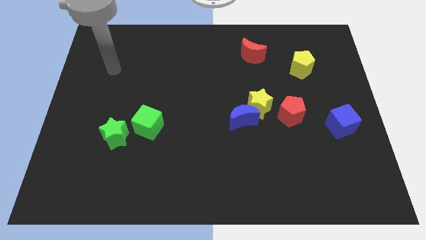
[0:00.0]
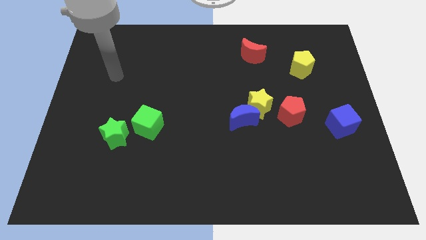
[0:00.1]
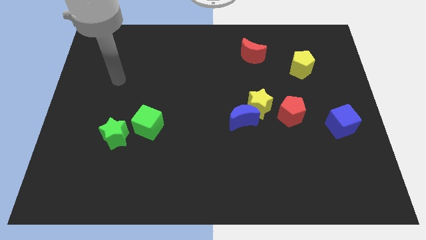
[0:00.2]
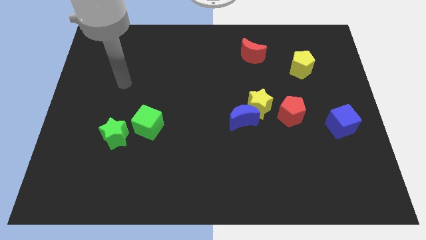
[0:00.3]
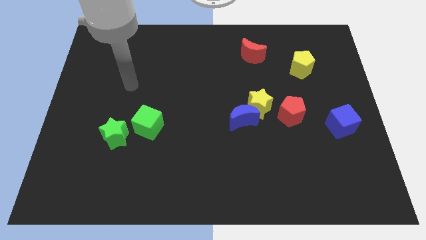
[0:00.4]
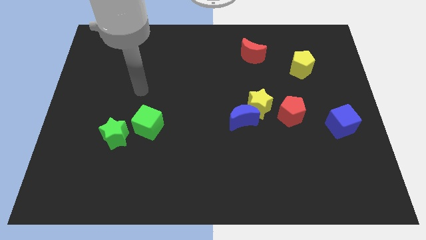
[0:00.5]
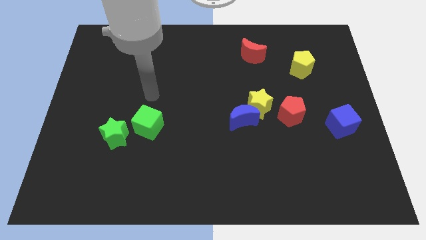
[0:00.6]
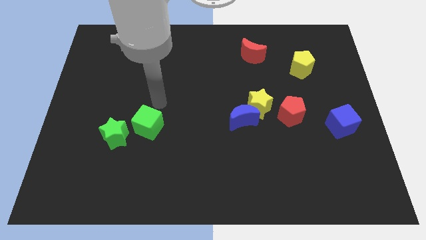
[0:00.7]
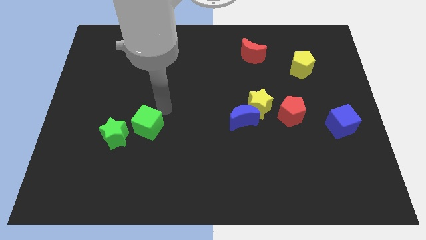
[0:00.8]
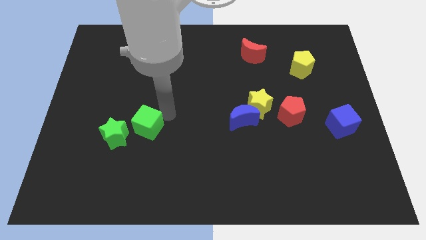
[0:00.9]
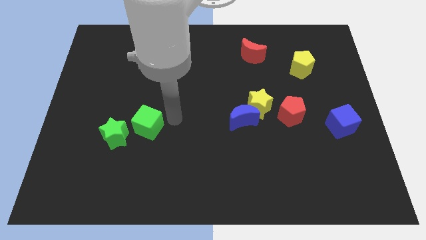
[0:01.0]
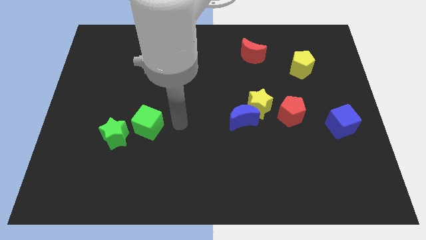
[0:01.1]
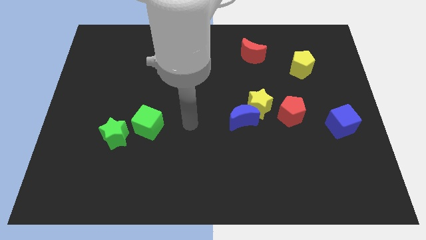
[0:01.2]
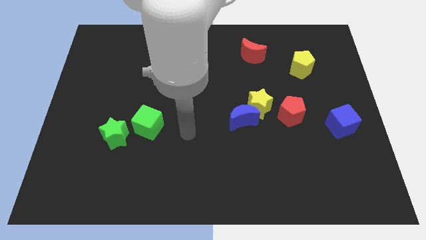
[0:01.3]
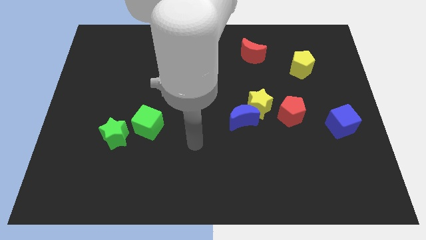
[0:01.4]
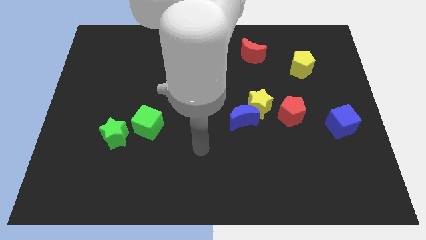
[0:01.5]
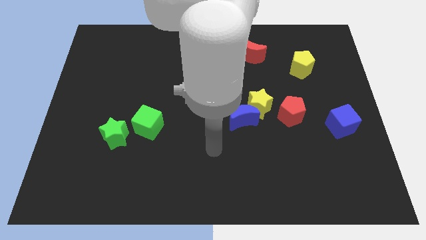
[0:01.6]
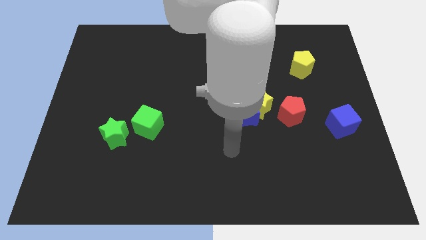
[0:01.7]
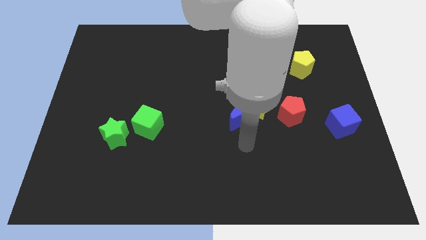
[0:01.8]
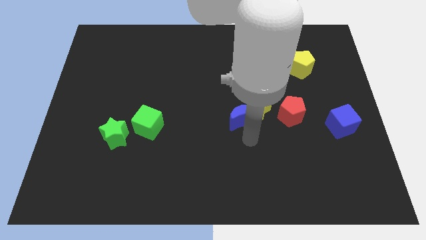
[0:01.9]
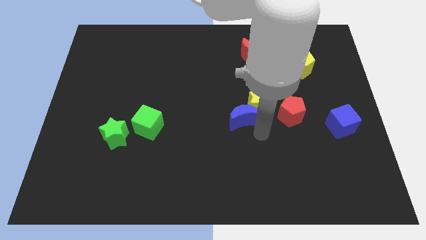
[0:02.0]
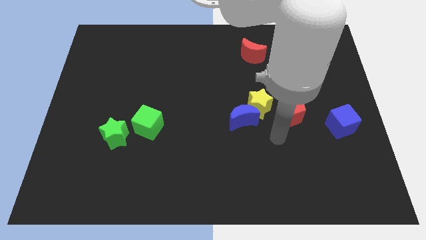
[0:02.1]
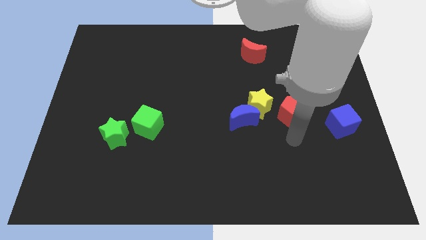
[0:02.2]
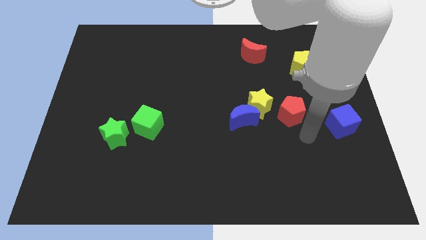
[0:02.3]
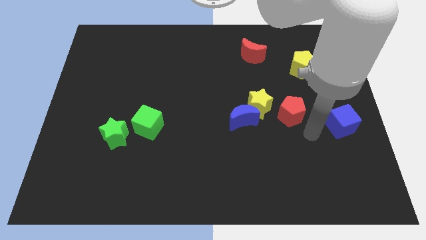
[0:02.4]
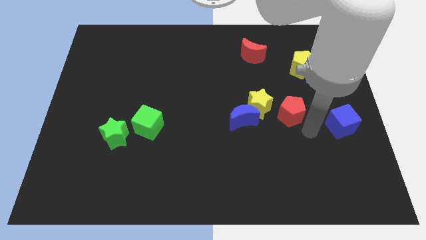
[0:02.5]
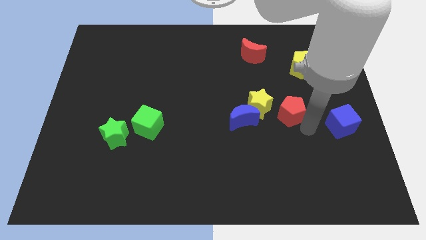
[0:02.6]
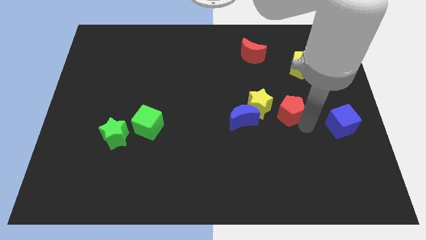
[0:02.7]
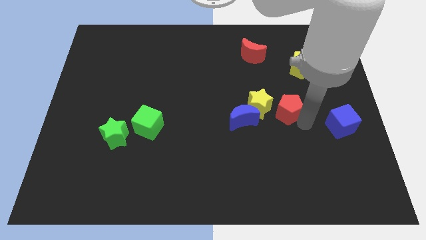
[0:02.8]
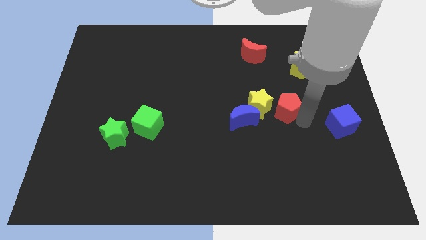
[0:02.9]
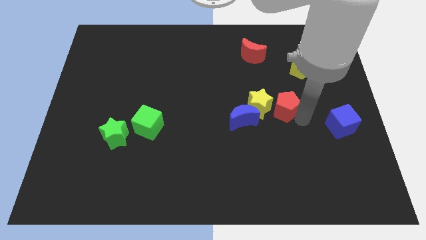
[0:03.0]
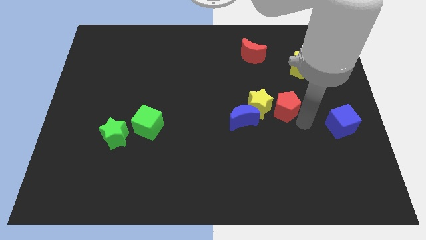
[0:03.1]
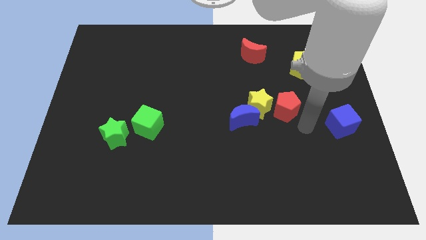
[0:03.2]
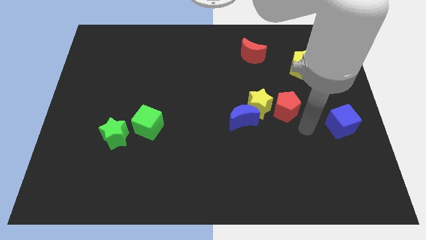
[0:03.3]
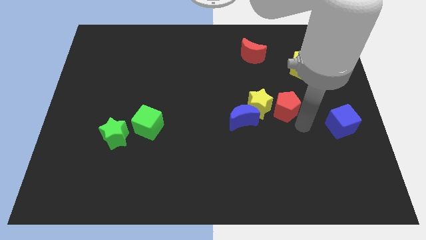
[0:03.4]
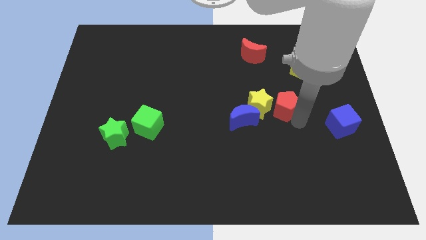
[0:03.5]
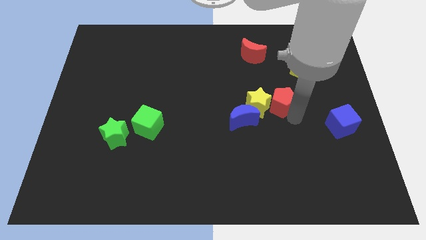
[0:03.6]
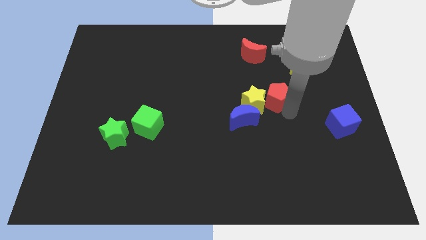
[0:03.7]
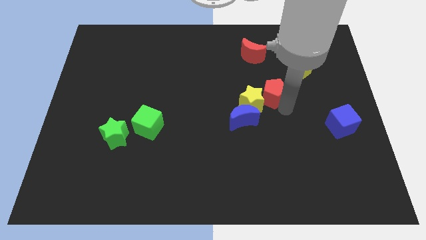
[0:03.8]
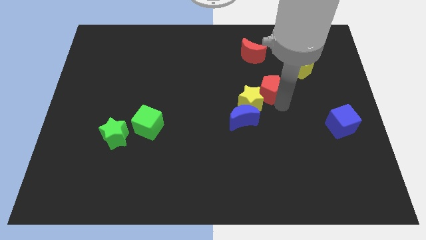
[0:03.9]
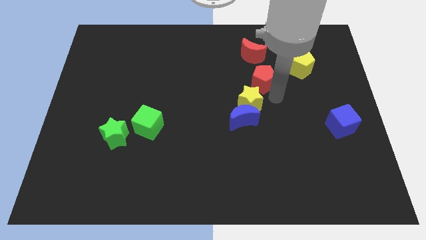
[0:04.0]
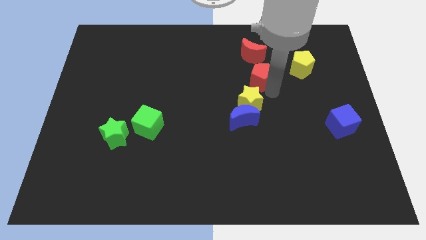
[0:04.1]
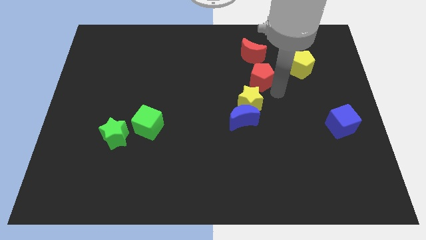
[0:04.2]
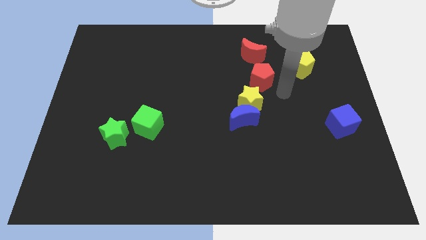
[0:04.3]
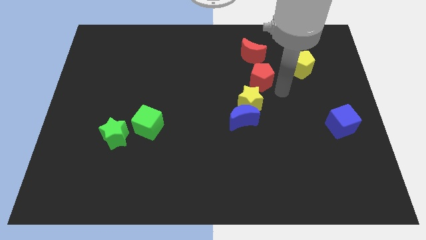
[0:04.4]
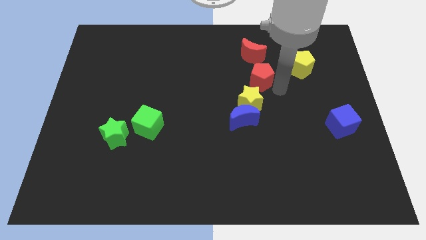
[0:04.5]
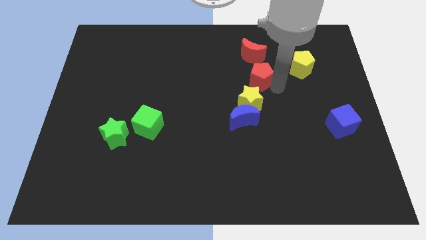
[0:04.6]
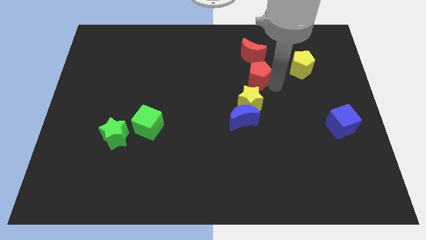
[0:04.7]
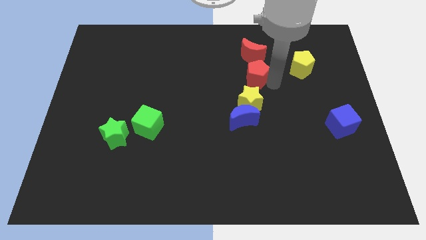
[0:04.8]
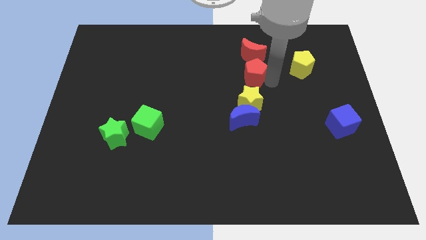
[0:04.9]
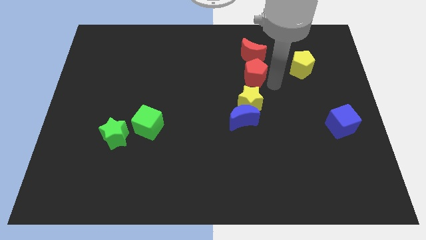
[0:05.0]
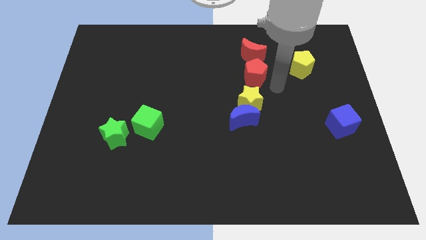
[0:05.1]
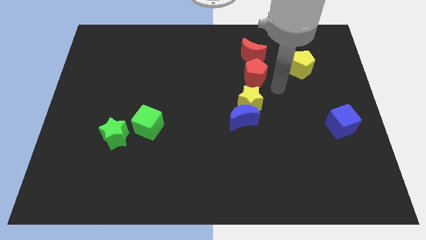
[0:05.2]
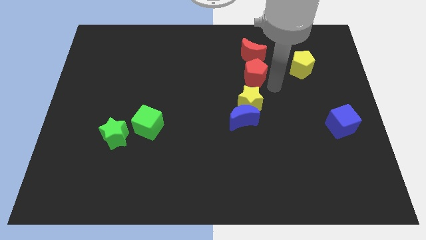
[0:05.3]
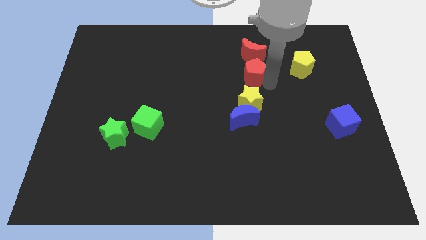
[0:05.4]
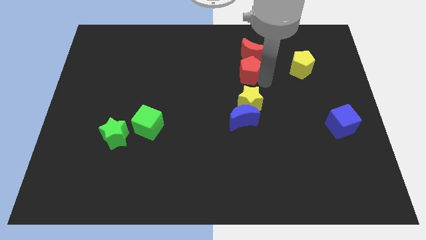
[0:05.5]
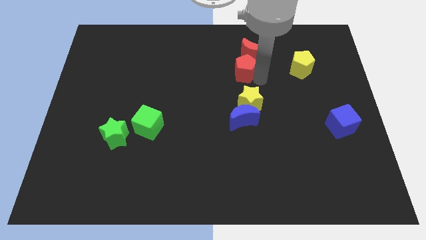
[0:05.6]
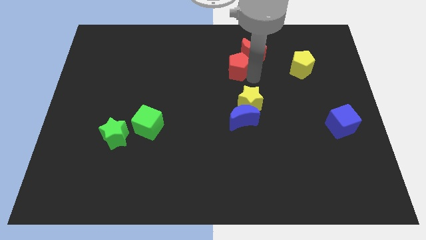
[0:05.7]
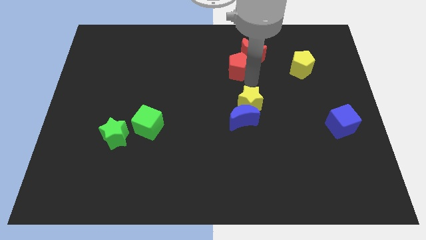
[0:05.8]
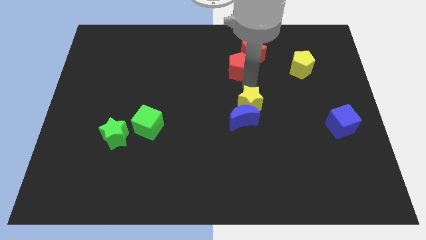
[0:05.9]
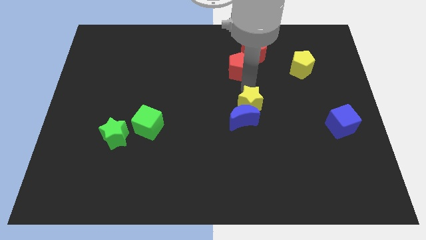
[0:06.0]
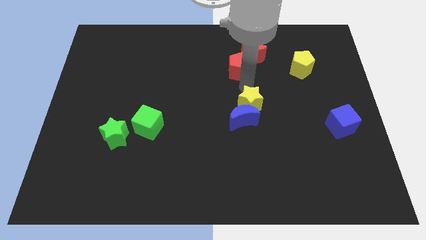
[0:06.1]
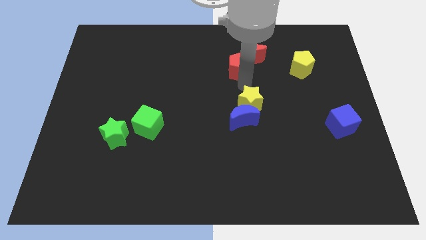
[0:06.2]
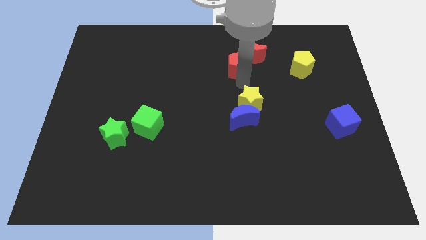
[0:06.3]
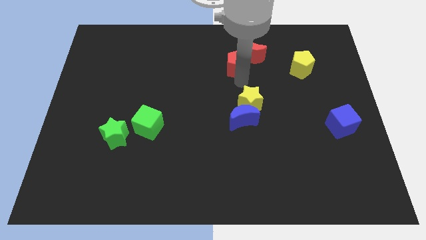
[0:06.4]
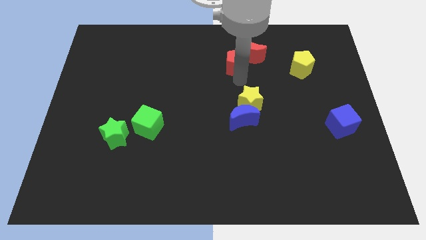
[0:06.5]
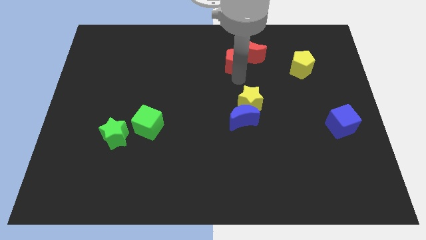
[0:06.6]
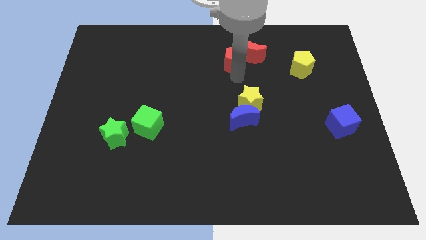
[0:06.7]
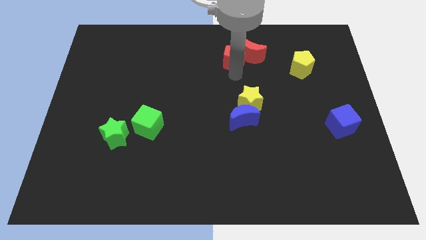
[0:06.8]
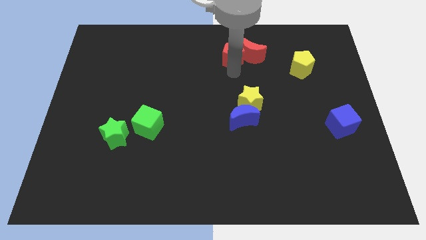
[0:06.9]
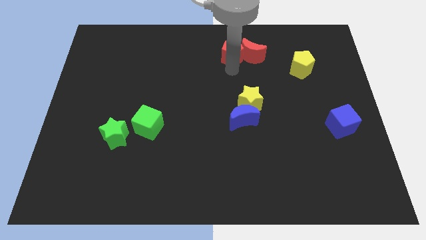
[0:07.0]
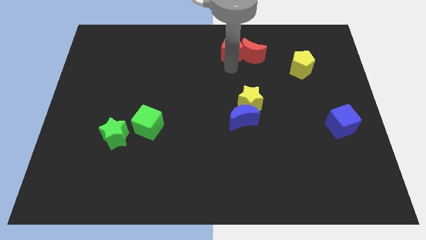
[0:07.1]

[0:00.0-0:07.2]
put the red pentagon to the top side

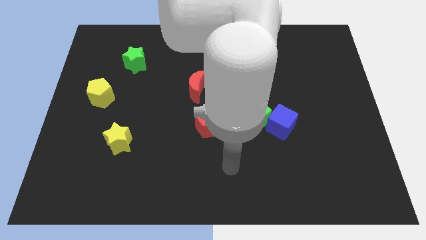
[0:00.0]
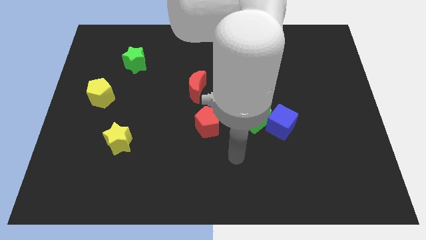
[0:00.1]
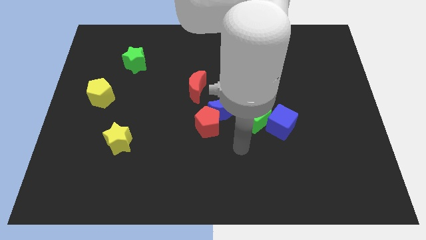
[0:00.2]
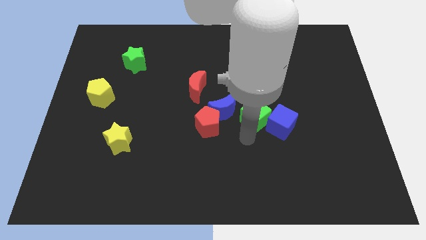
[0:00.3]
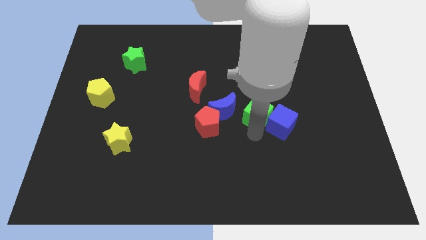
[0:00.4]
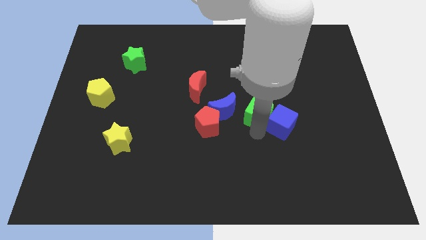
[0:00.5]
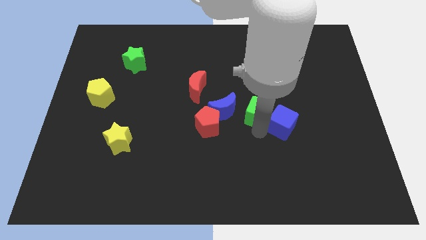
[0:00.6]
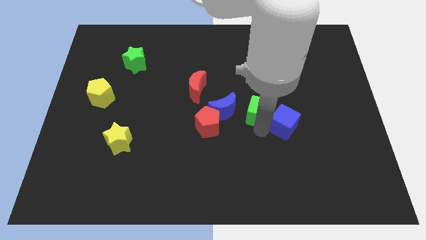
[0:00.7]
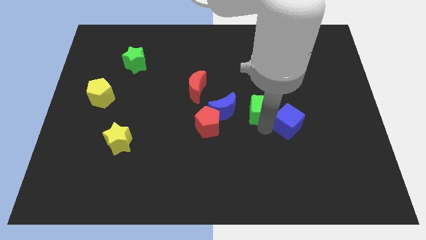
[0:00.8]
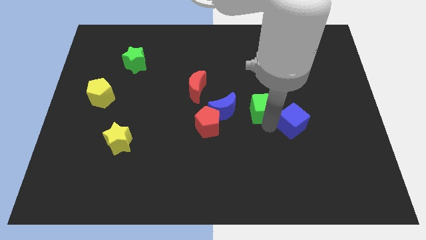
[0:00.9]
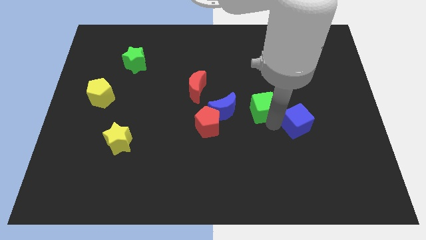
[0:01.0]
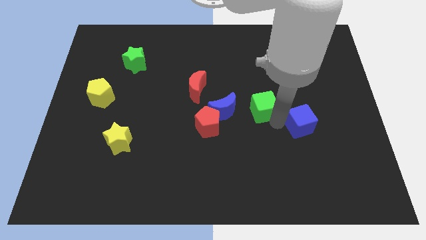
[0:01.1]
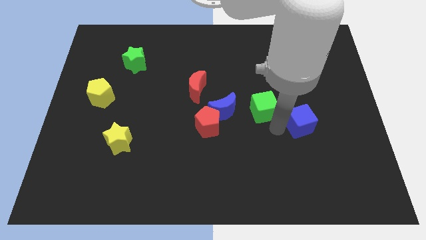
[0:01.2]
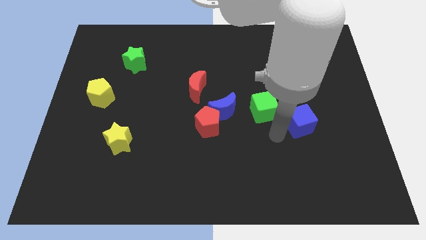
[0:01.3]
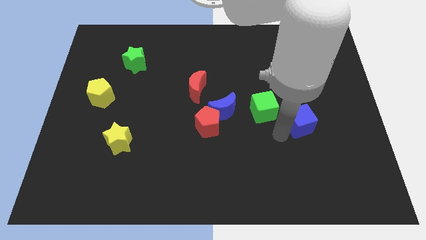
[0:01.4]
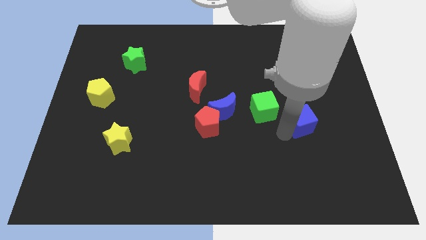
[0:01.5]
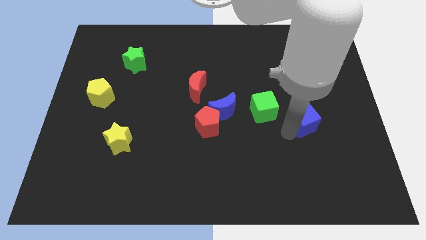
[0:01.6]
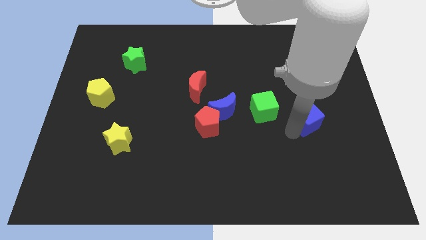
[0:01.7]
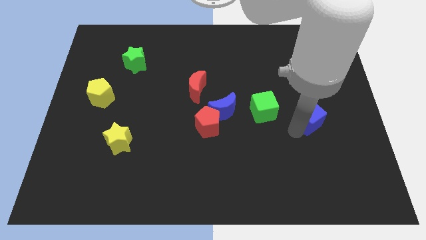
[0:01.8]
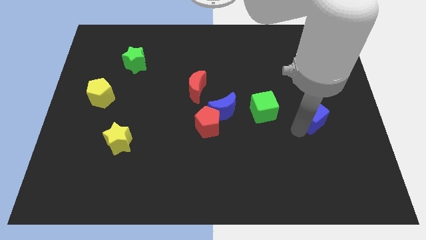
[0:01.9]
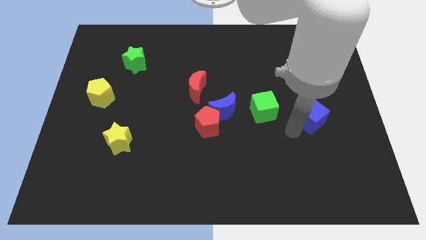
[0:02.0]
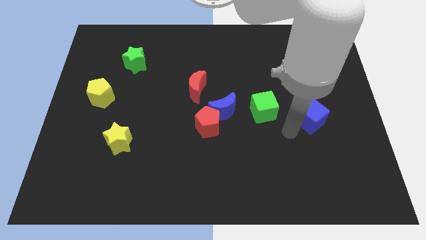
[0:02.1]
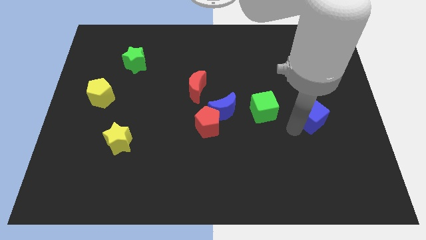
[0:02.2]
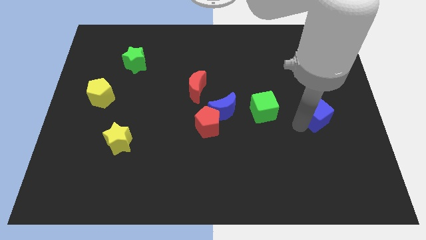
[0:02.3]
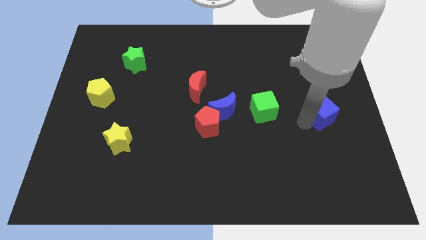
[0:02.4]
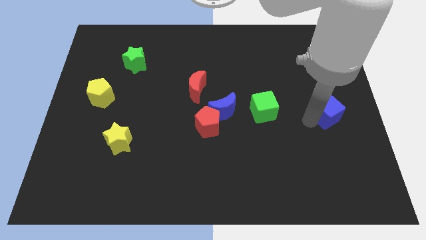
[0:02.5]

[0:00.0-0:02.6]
move the blue cube to the right side
